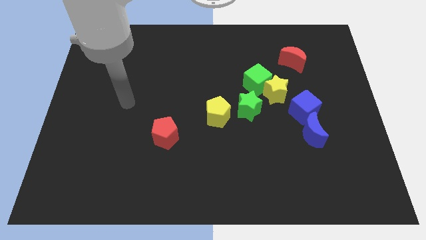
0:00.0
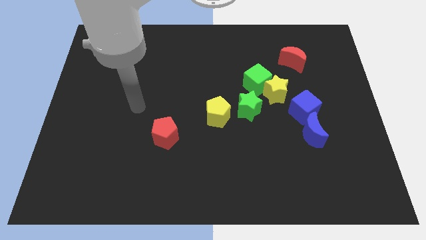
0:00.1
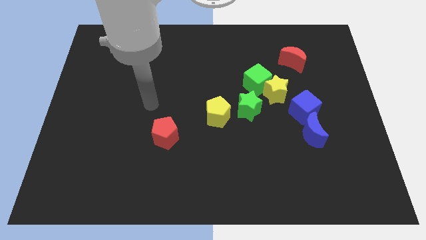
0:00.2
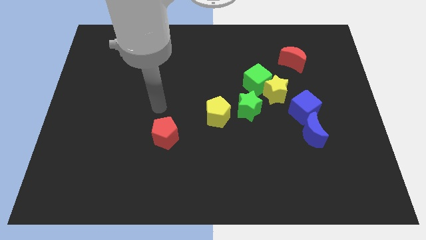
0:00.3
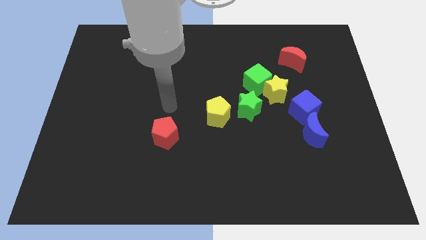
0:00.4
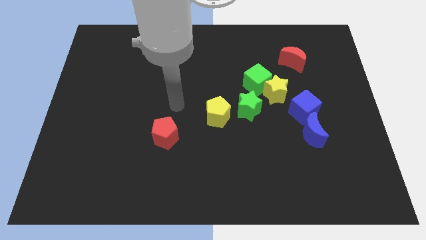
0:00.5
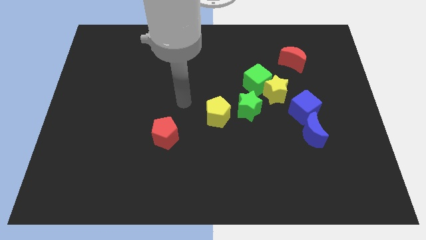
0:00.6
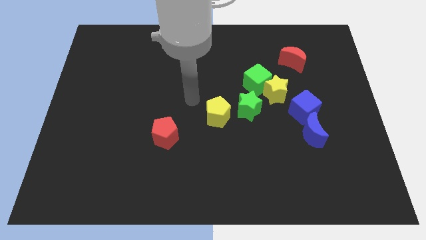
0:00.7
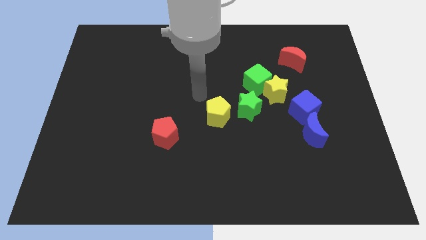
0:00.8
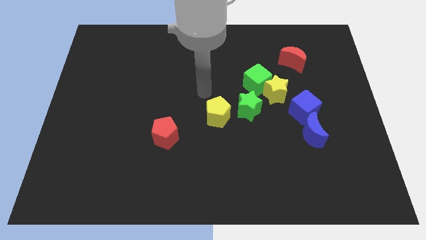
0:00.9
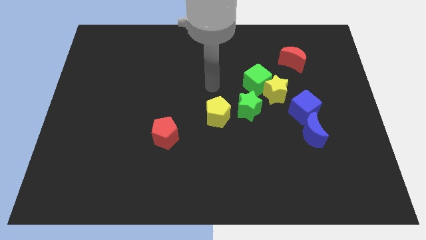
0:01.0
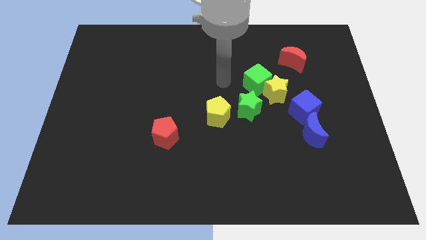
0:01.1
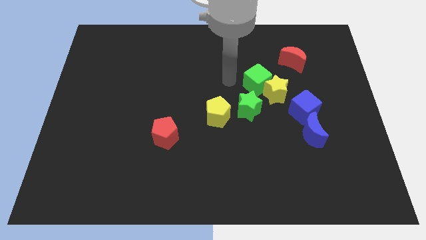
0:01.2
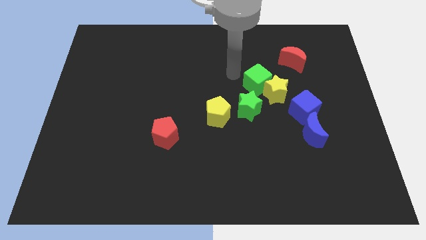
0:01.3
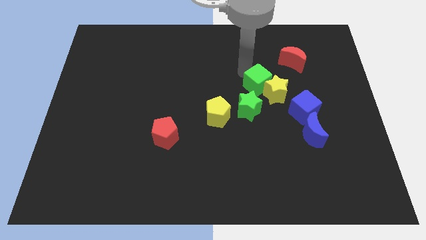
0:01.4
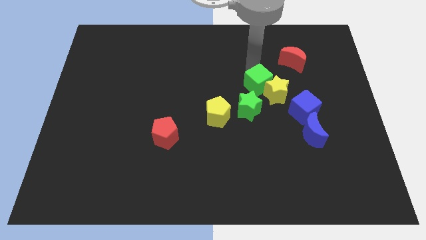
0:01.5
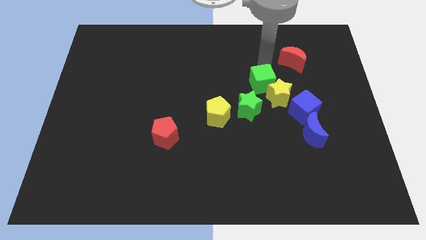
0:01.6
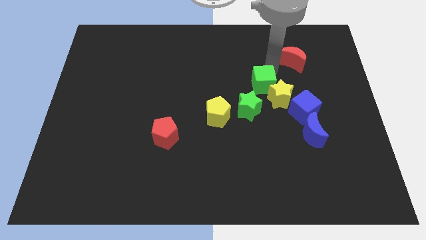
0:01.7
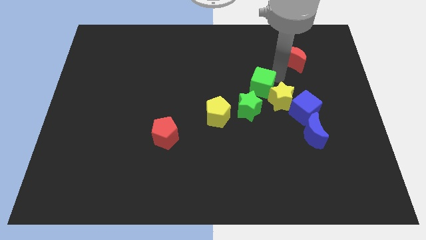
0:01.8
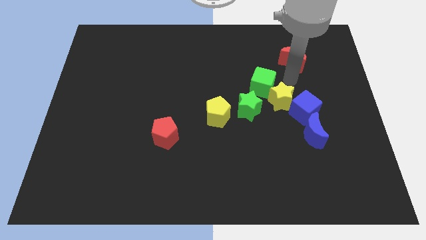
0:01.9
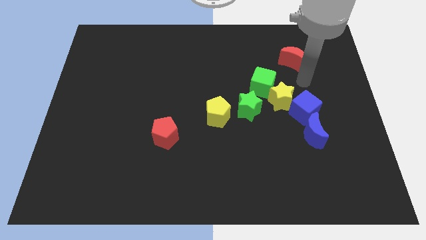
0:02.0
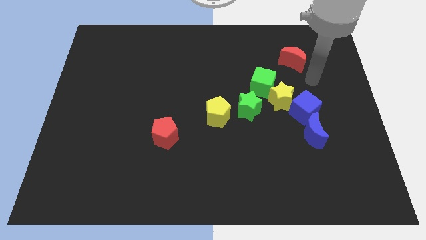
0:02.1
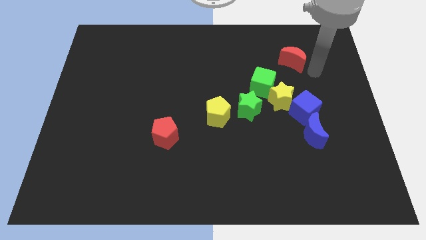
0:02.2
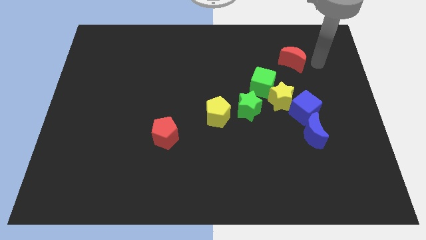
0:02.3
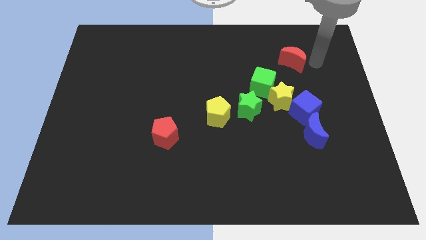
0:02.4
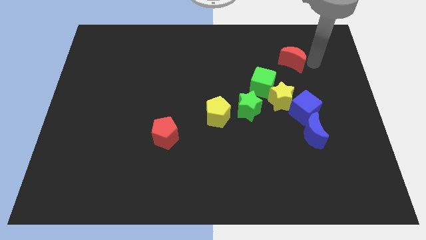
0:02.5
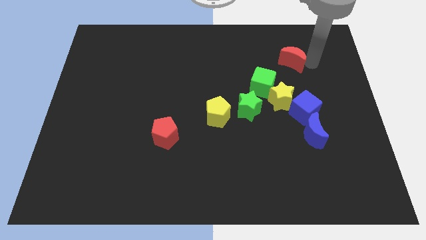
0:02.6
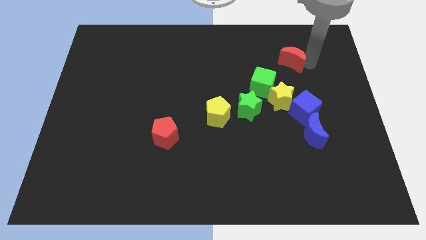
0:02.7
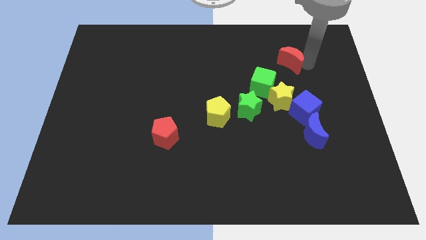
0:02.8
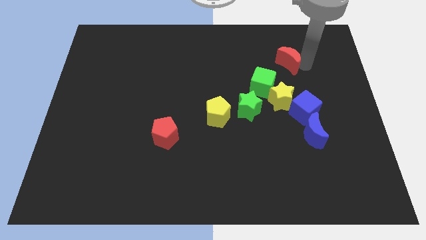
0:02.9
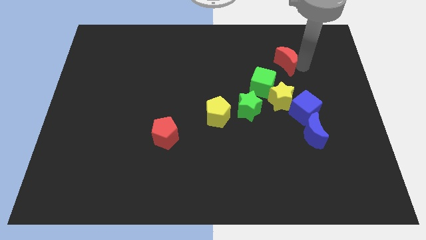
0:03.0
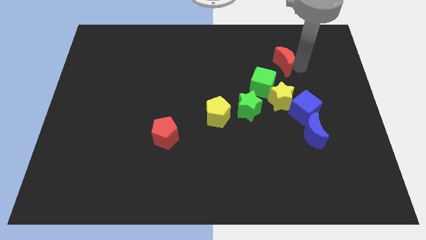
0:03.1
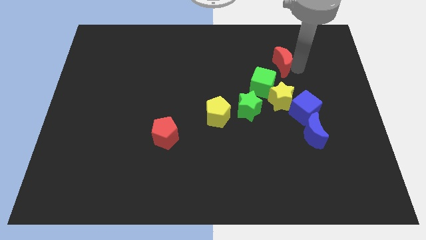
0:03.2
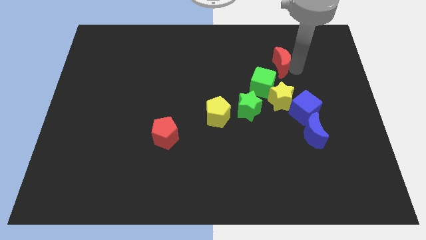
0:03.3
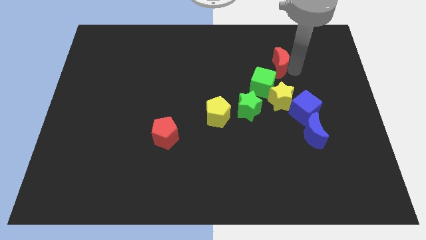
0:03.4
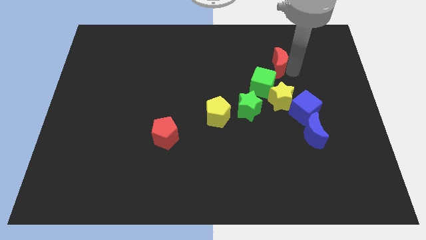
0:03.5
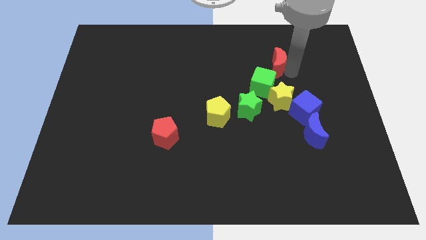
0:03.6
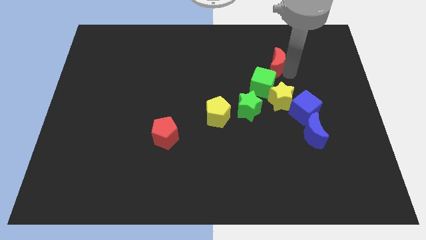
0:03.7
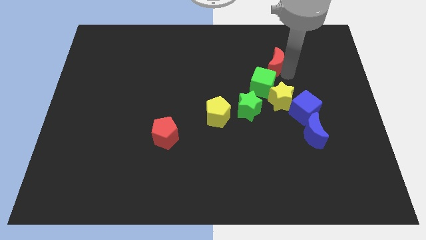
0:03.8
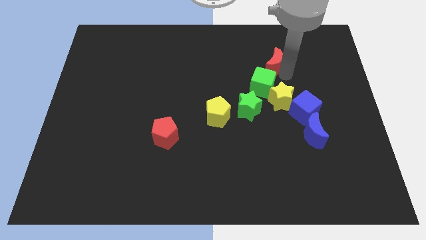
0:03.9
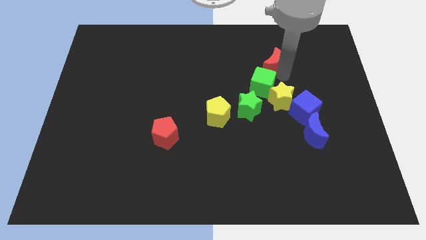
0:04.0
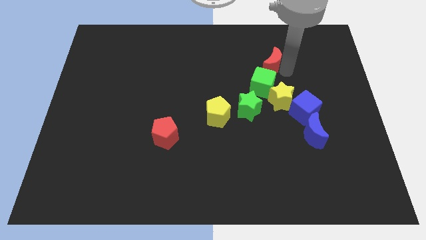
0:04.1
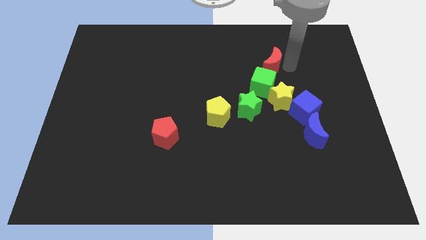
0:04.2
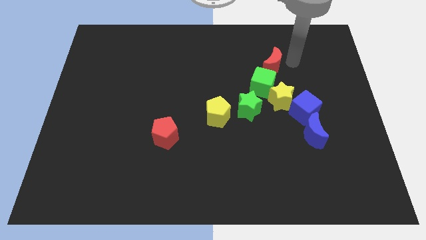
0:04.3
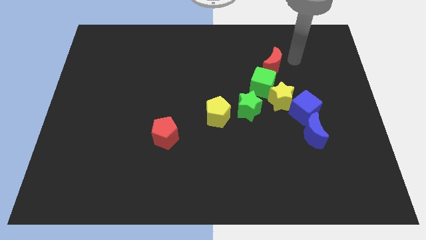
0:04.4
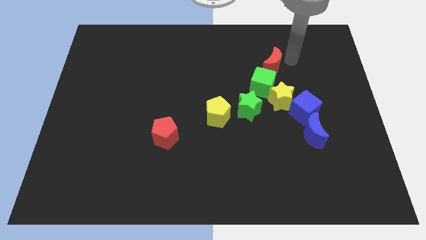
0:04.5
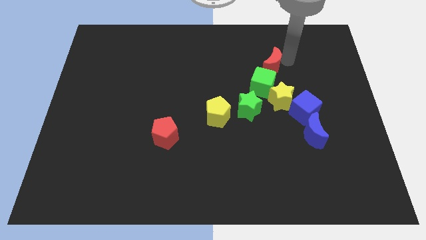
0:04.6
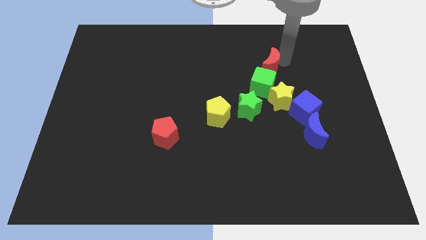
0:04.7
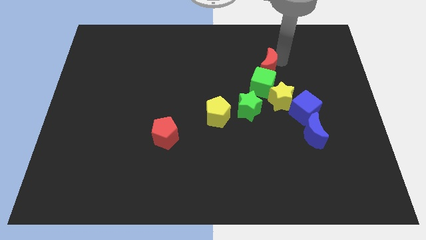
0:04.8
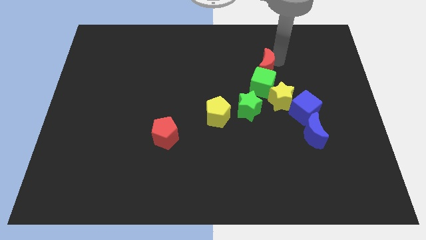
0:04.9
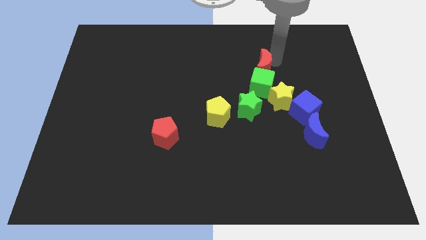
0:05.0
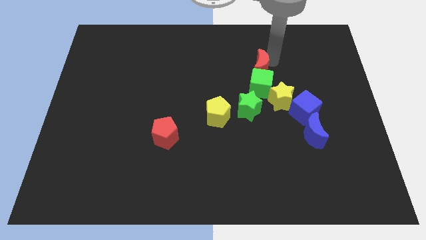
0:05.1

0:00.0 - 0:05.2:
put the red moon to the top side of the green star

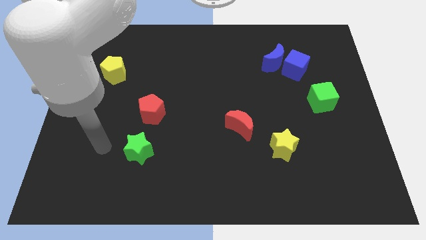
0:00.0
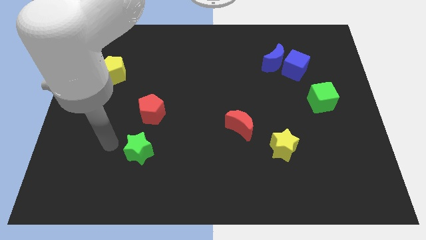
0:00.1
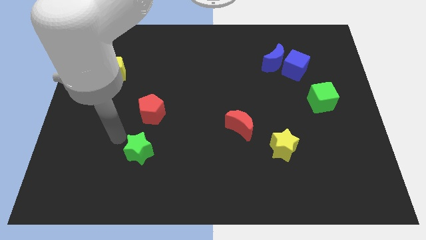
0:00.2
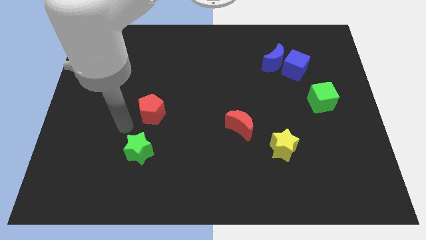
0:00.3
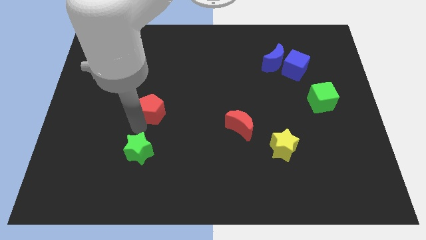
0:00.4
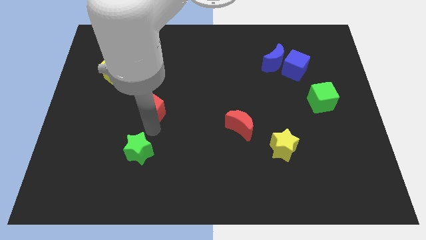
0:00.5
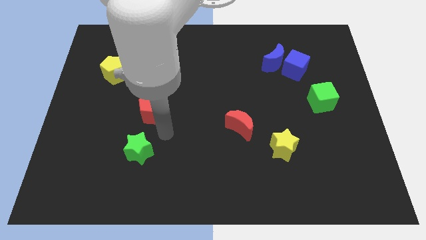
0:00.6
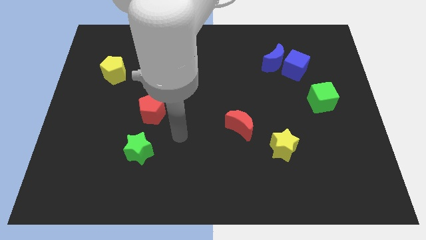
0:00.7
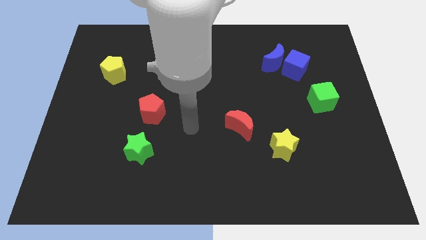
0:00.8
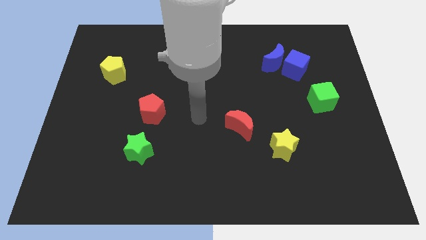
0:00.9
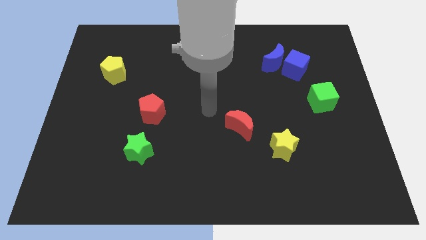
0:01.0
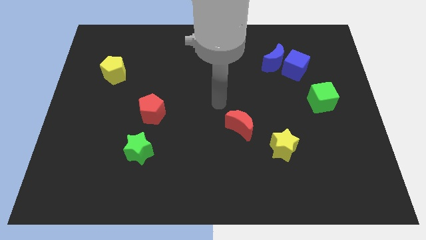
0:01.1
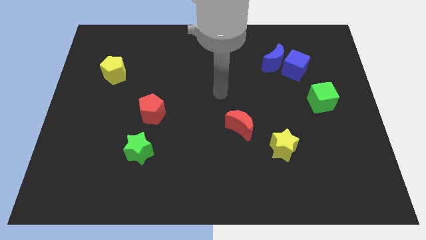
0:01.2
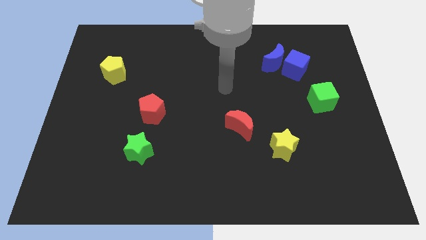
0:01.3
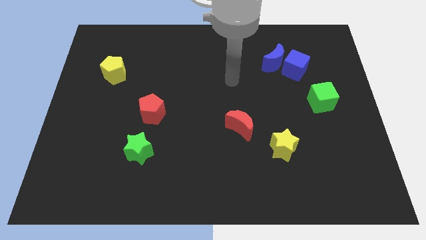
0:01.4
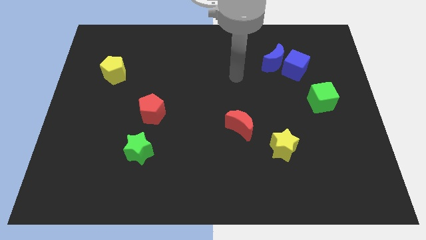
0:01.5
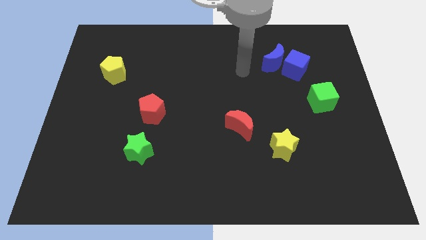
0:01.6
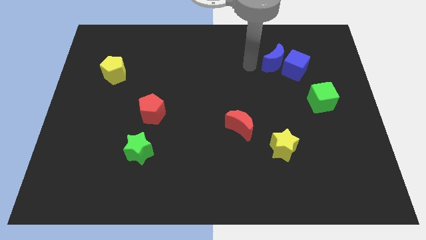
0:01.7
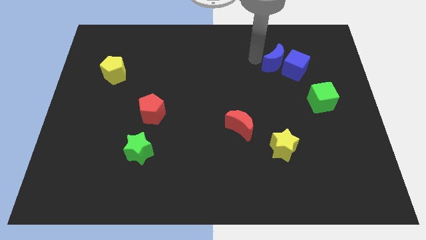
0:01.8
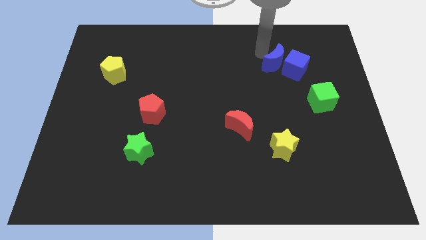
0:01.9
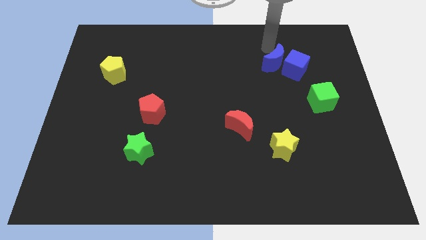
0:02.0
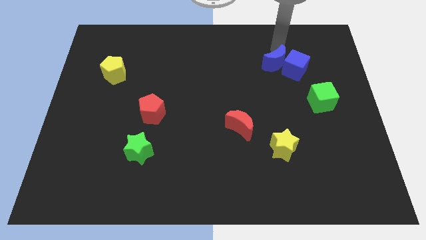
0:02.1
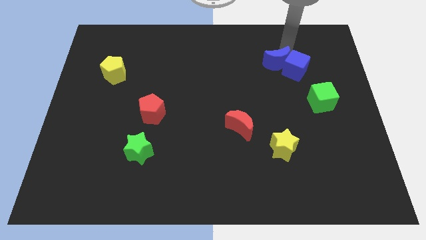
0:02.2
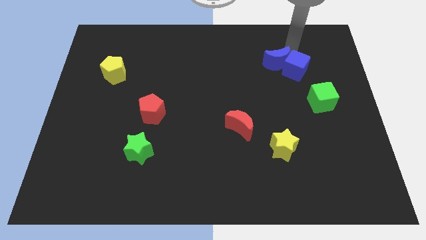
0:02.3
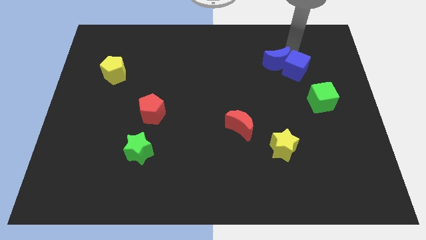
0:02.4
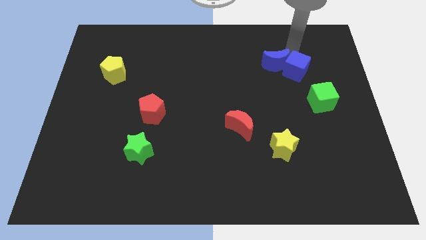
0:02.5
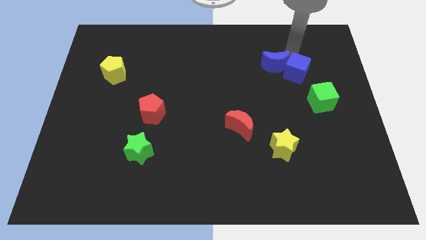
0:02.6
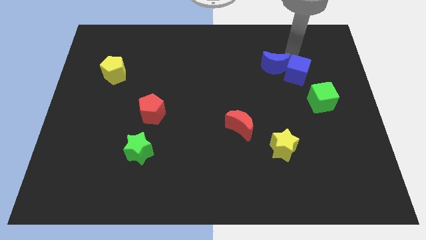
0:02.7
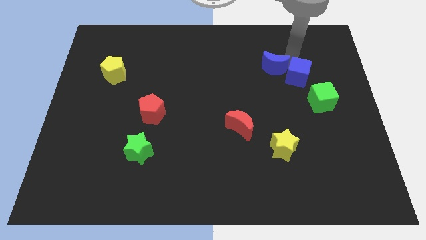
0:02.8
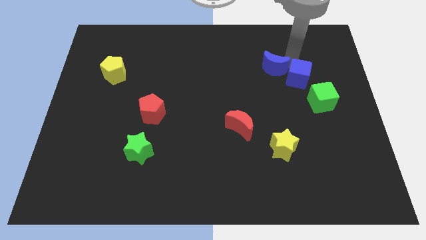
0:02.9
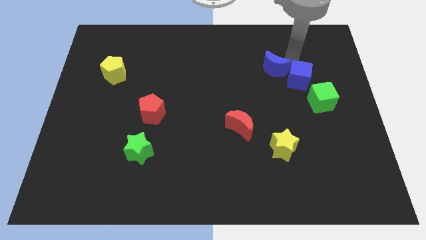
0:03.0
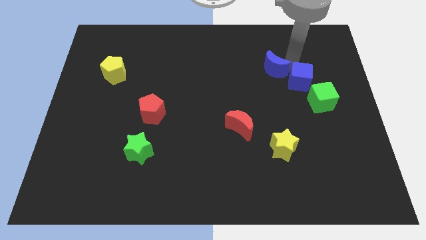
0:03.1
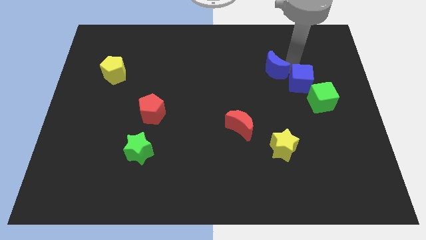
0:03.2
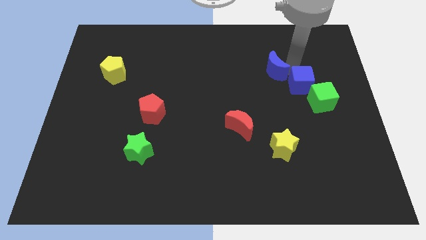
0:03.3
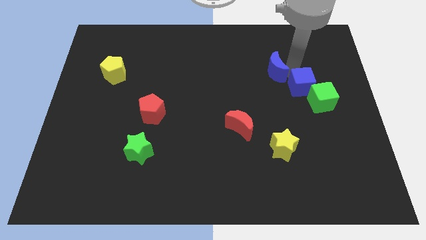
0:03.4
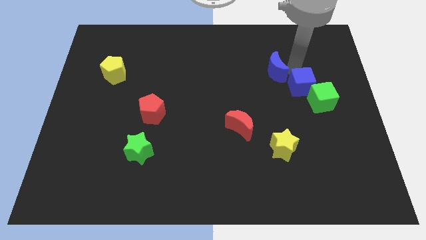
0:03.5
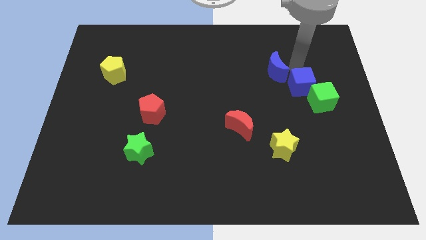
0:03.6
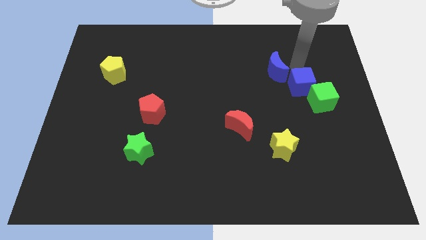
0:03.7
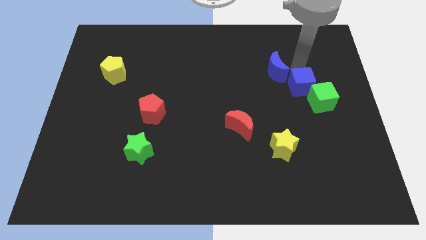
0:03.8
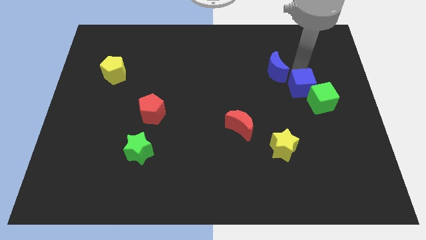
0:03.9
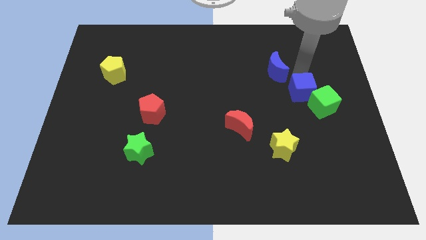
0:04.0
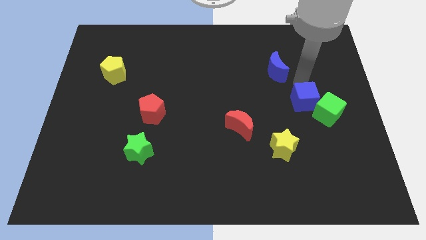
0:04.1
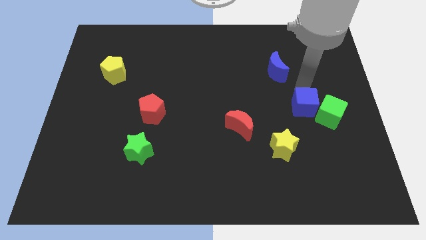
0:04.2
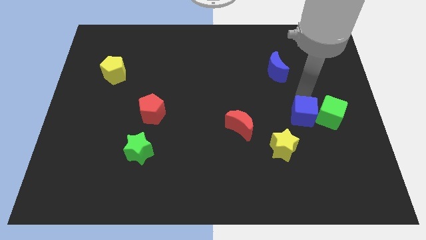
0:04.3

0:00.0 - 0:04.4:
slide the blue cube to the bottom left side of the green cube
